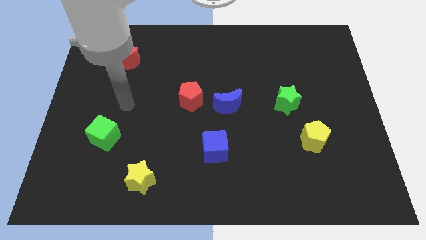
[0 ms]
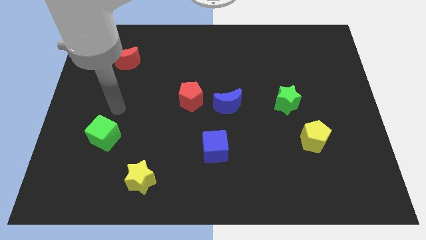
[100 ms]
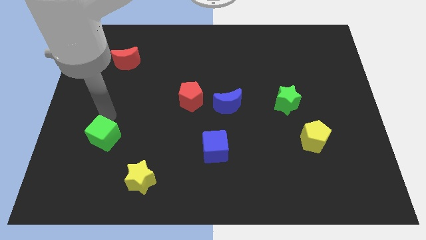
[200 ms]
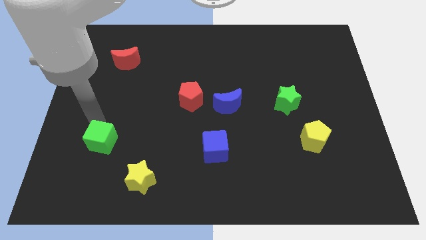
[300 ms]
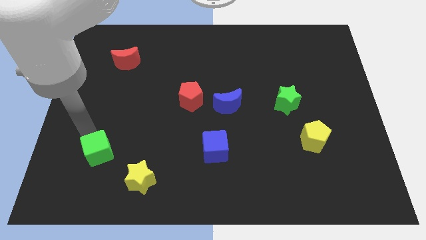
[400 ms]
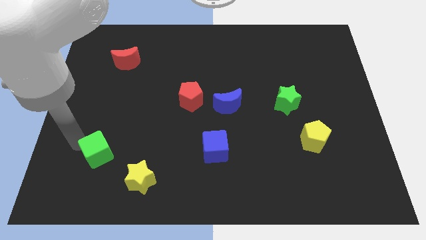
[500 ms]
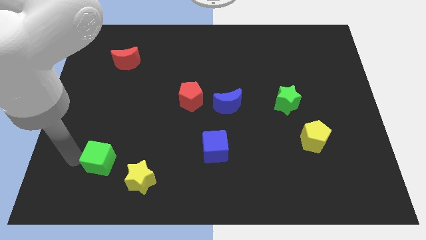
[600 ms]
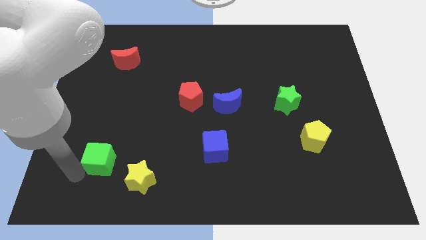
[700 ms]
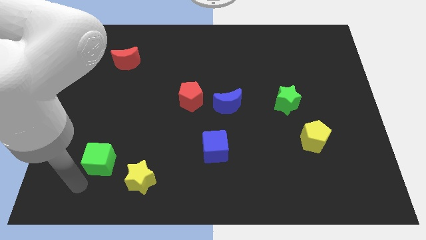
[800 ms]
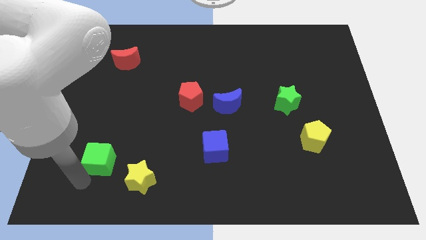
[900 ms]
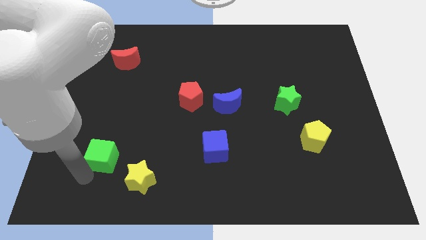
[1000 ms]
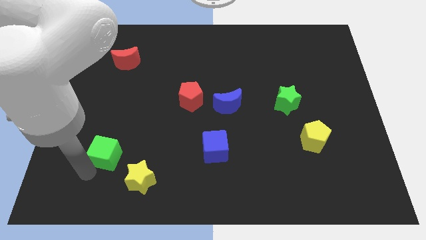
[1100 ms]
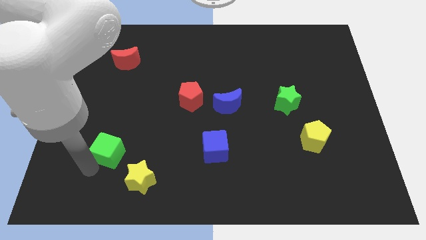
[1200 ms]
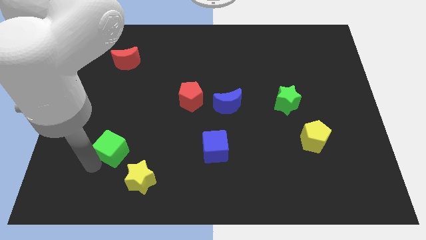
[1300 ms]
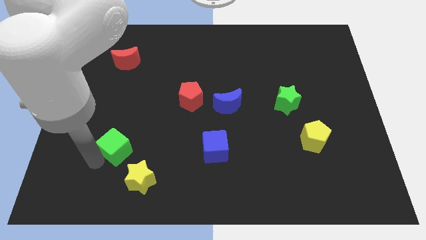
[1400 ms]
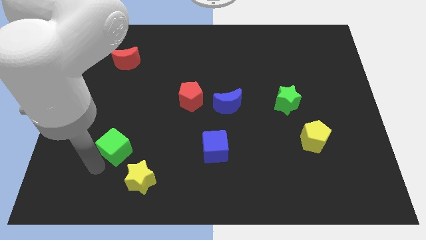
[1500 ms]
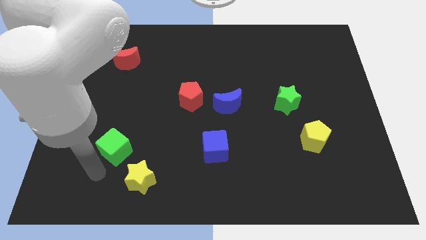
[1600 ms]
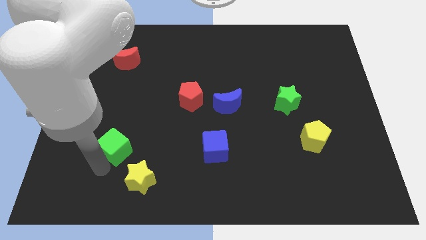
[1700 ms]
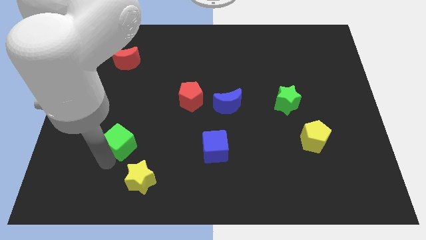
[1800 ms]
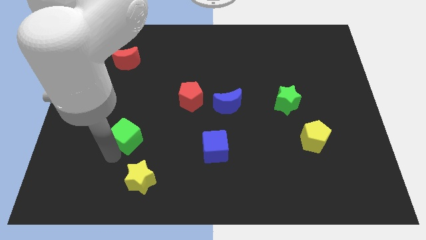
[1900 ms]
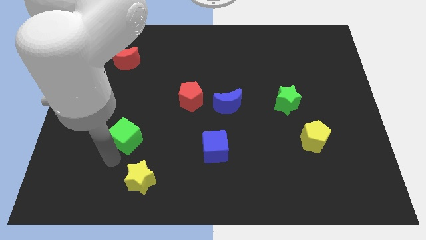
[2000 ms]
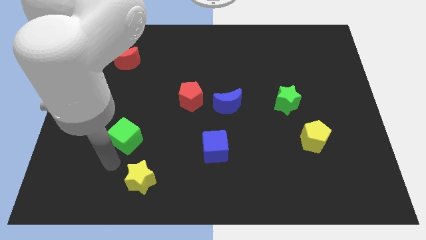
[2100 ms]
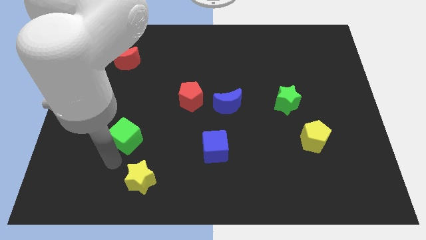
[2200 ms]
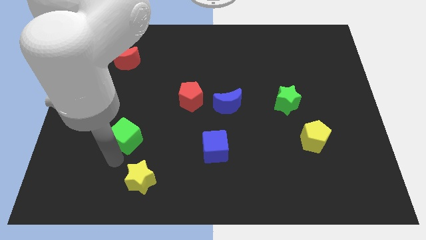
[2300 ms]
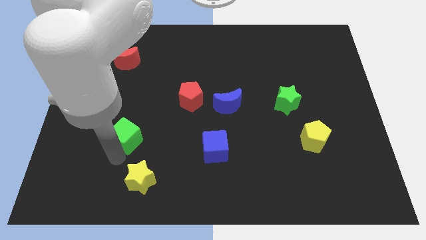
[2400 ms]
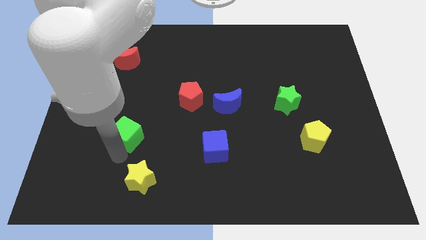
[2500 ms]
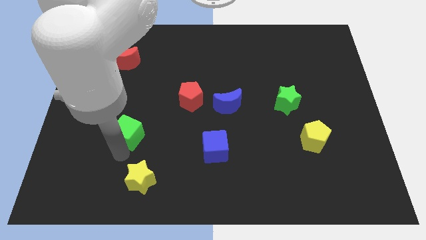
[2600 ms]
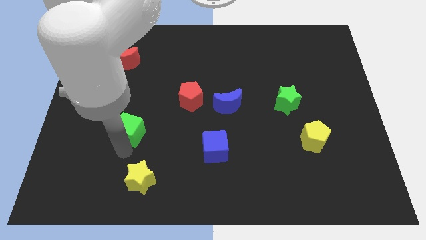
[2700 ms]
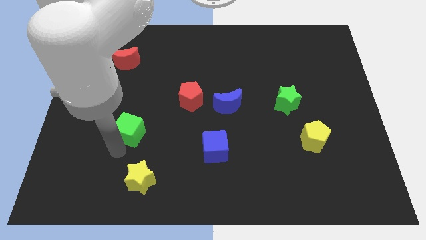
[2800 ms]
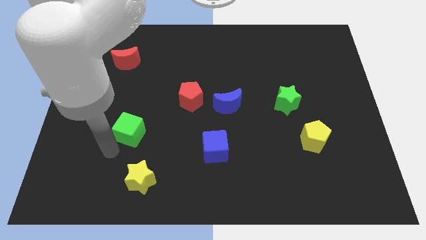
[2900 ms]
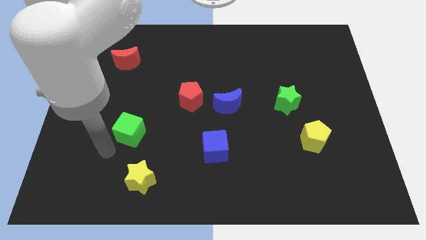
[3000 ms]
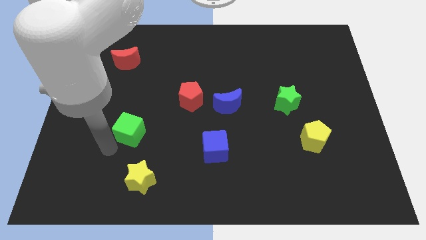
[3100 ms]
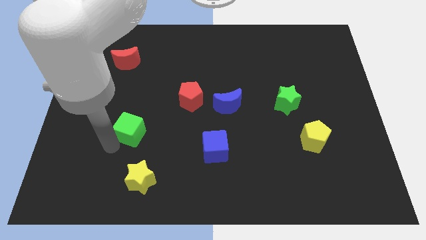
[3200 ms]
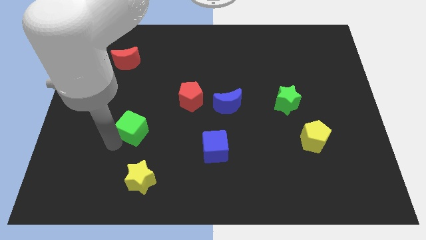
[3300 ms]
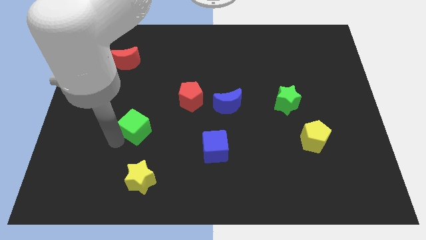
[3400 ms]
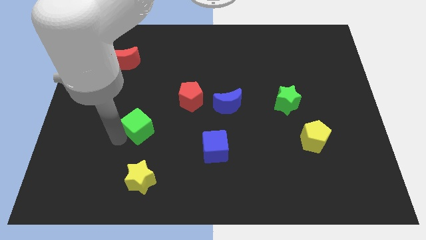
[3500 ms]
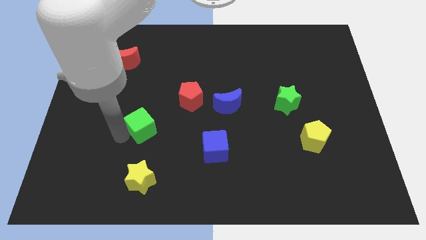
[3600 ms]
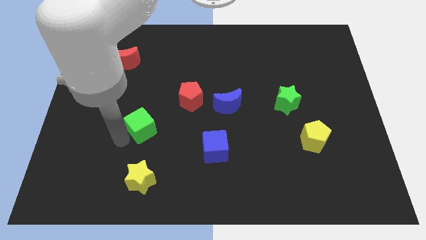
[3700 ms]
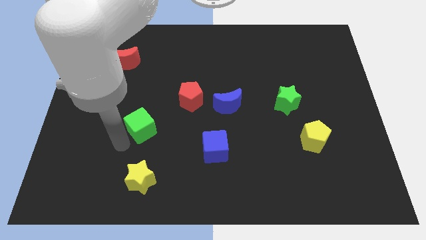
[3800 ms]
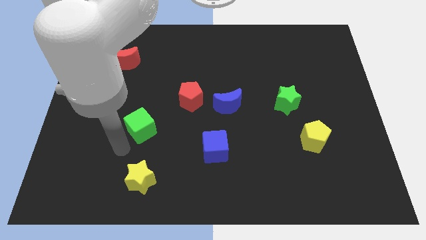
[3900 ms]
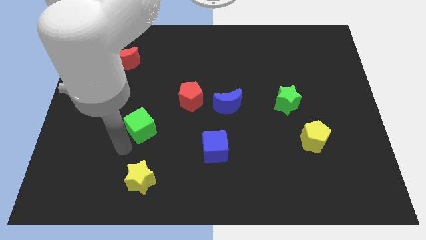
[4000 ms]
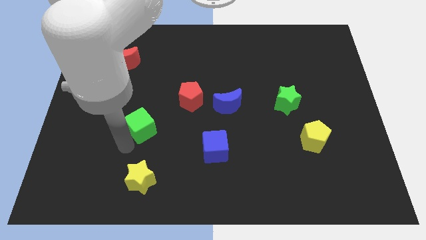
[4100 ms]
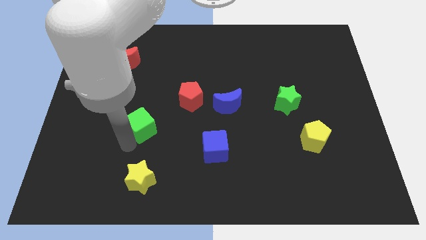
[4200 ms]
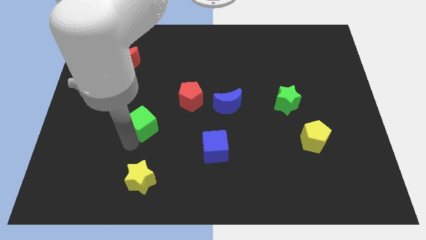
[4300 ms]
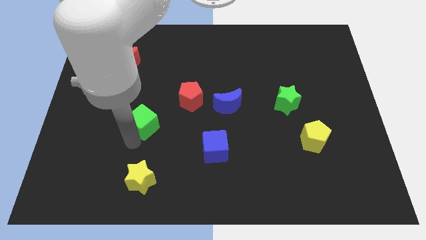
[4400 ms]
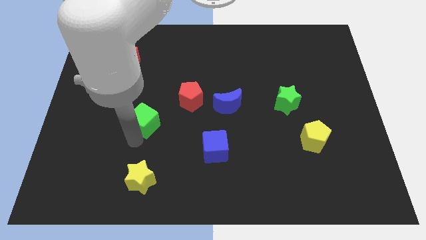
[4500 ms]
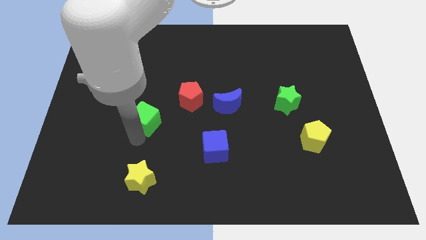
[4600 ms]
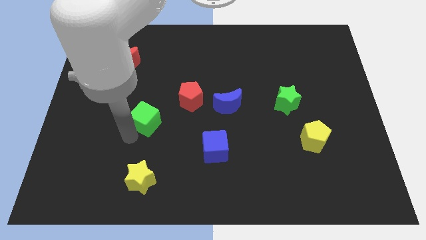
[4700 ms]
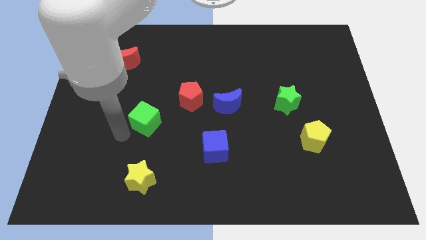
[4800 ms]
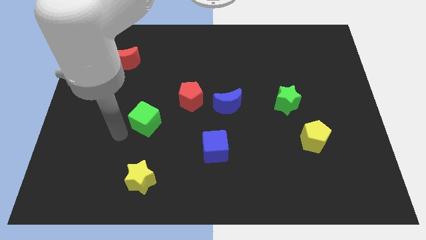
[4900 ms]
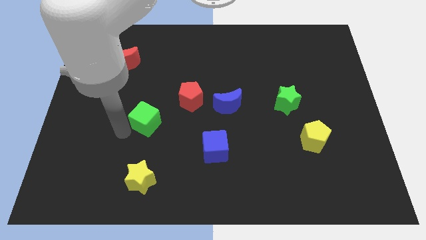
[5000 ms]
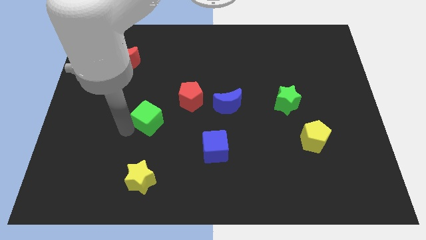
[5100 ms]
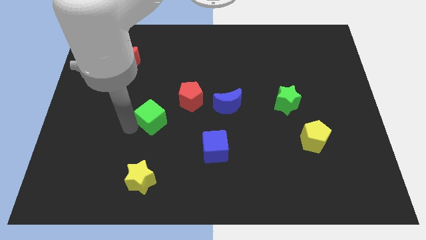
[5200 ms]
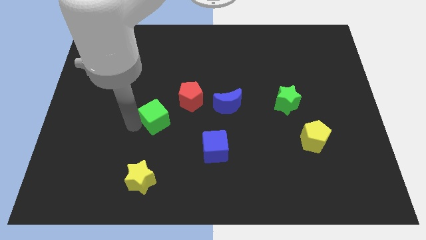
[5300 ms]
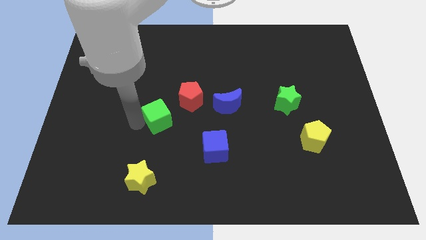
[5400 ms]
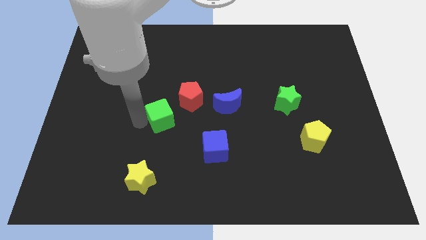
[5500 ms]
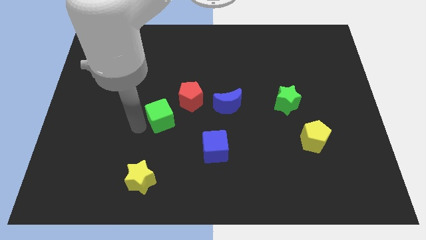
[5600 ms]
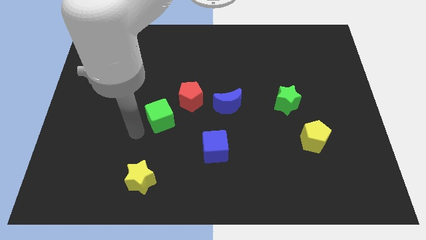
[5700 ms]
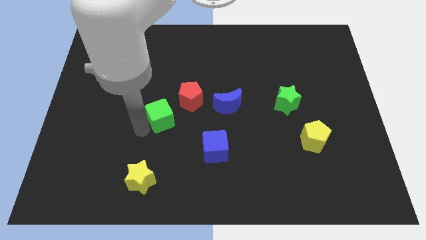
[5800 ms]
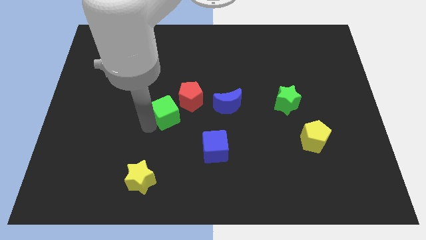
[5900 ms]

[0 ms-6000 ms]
slide the green cube to the left of the blue moon
